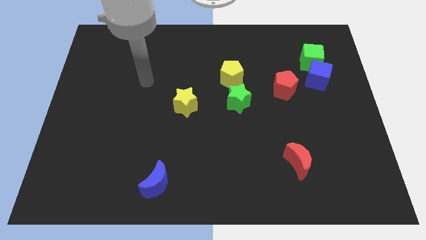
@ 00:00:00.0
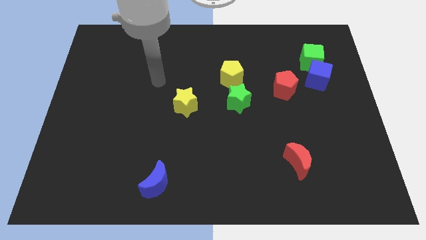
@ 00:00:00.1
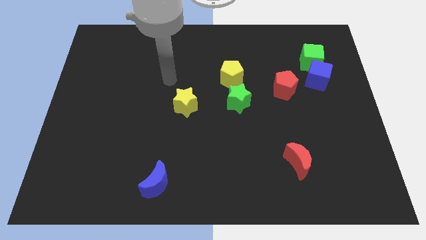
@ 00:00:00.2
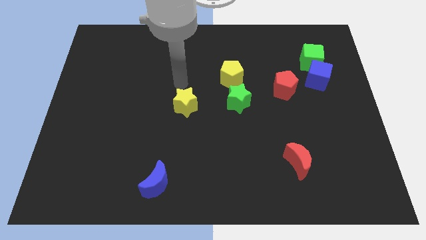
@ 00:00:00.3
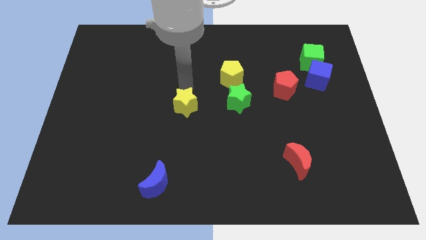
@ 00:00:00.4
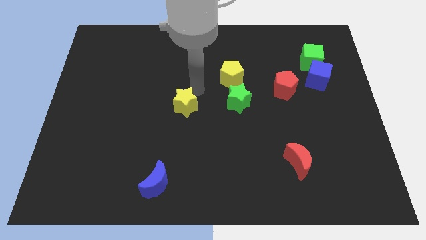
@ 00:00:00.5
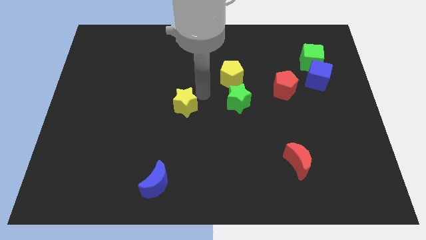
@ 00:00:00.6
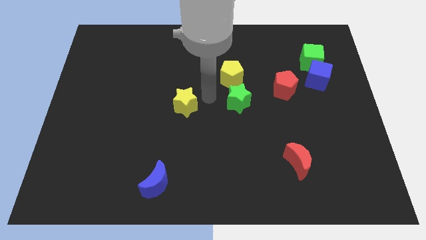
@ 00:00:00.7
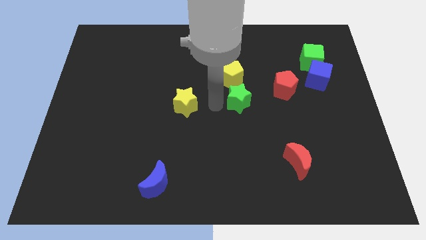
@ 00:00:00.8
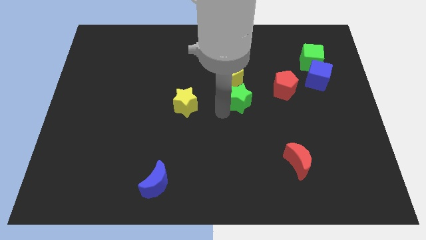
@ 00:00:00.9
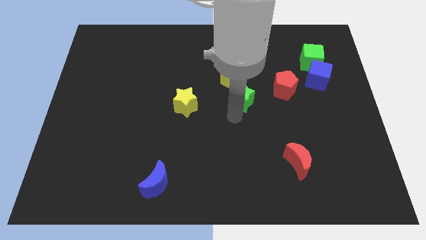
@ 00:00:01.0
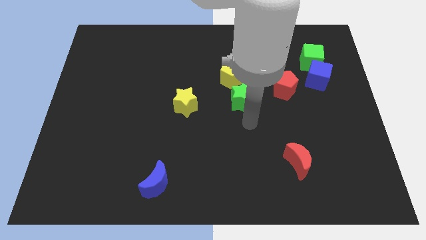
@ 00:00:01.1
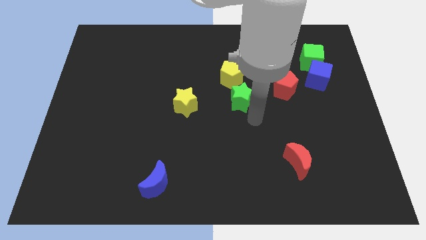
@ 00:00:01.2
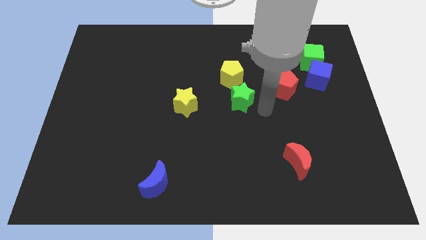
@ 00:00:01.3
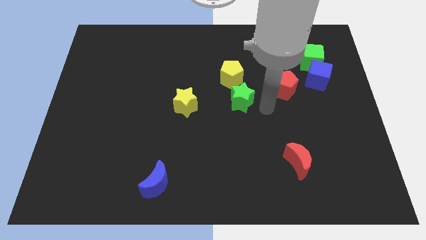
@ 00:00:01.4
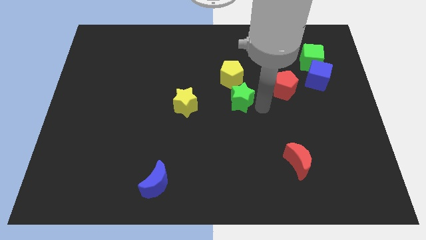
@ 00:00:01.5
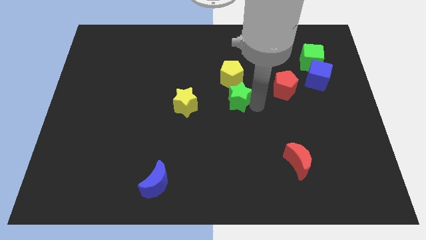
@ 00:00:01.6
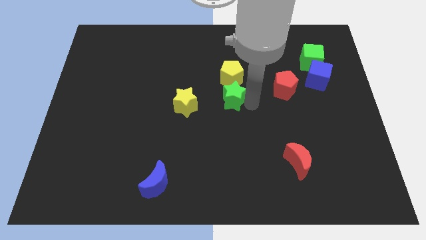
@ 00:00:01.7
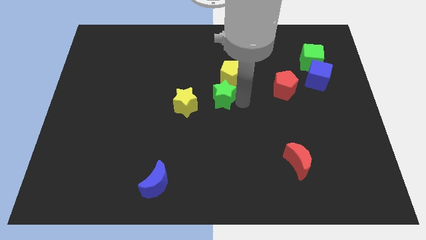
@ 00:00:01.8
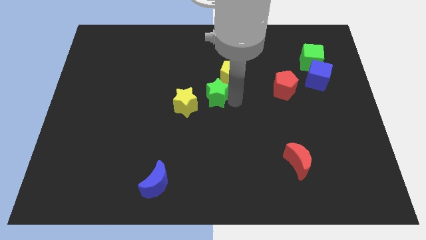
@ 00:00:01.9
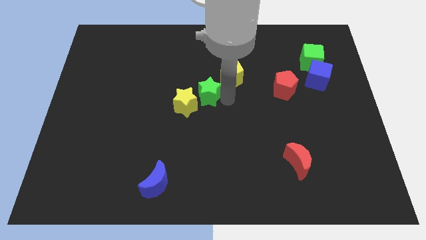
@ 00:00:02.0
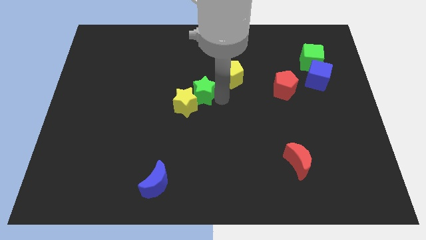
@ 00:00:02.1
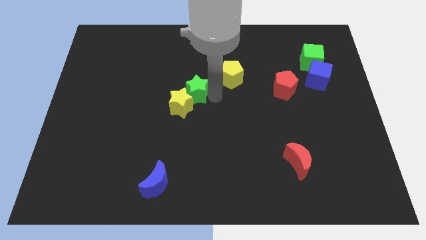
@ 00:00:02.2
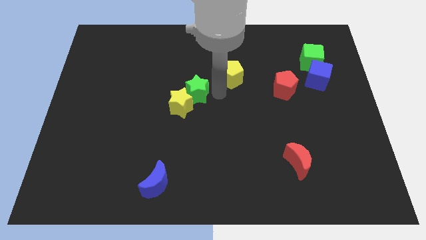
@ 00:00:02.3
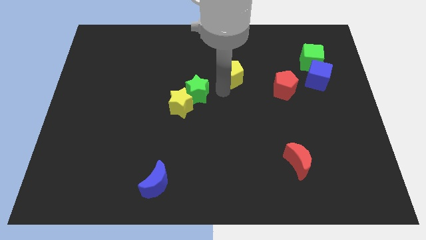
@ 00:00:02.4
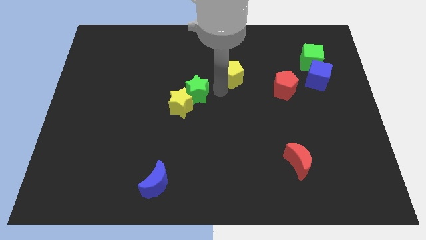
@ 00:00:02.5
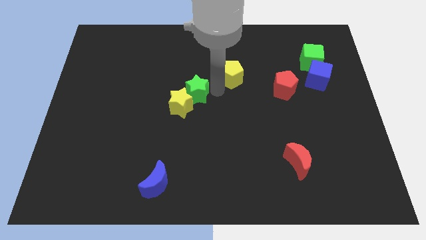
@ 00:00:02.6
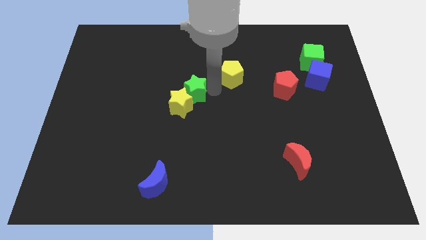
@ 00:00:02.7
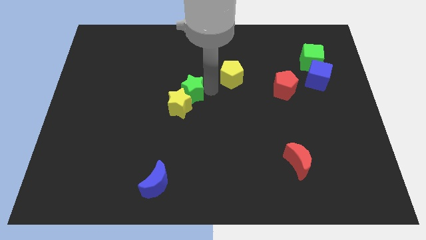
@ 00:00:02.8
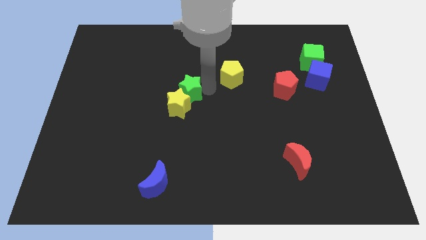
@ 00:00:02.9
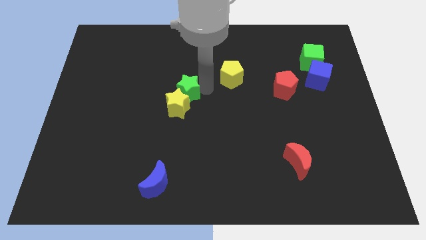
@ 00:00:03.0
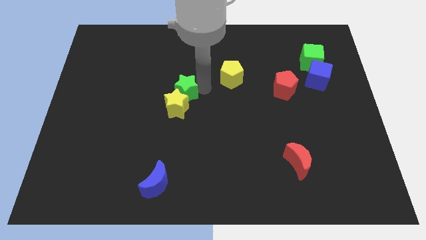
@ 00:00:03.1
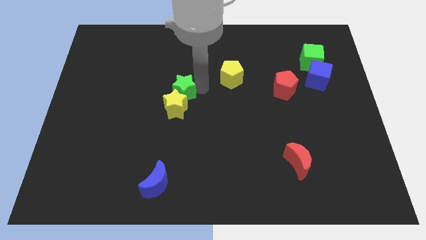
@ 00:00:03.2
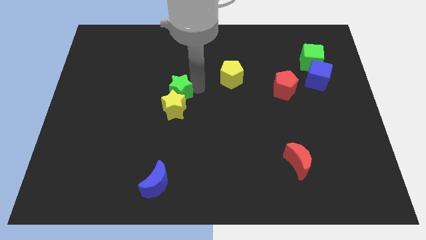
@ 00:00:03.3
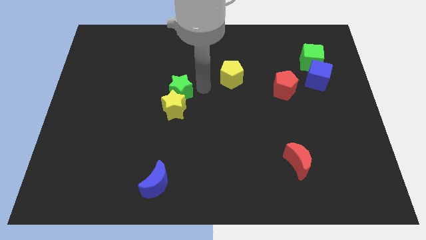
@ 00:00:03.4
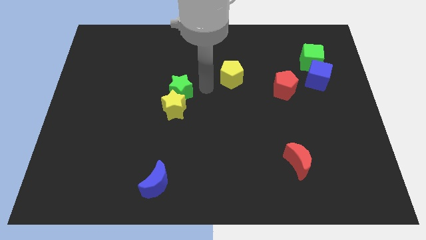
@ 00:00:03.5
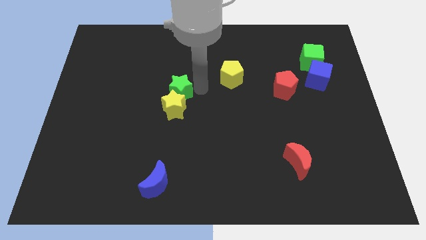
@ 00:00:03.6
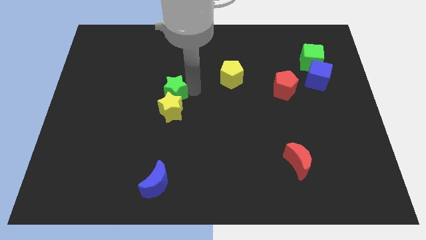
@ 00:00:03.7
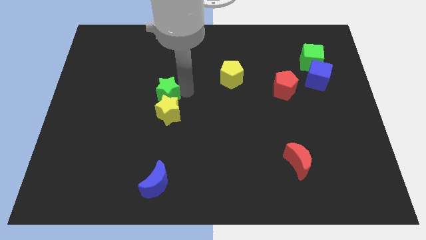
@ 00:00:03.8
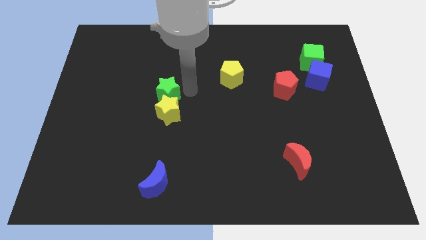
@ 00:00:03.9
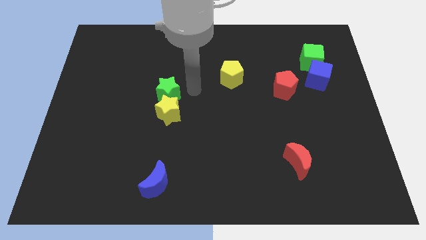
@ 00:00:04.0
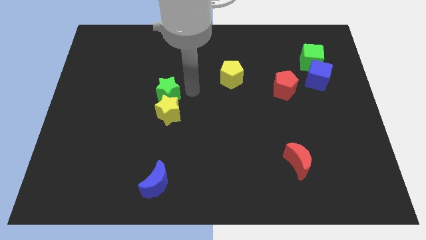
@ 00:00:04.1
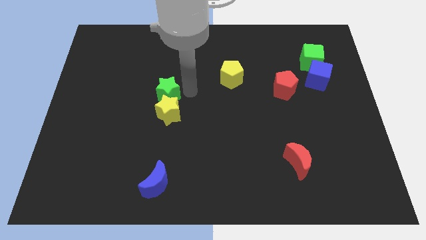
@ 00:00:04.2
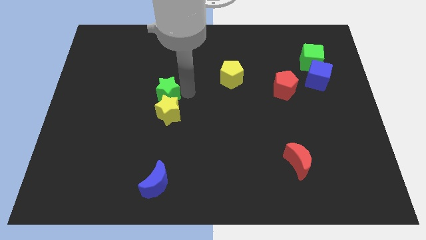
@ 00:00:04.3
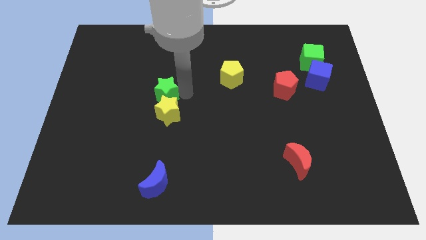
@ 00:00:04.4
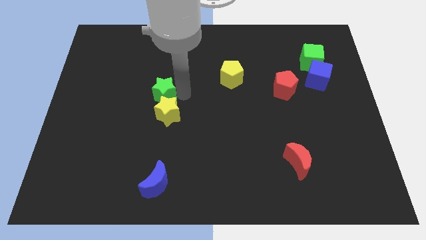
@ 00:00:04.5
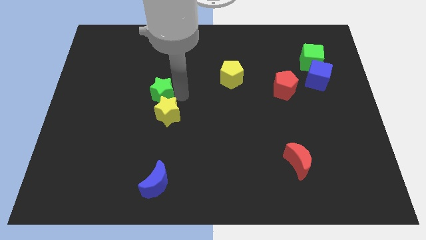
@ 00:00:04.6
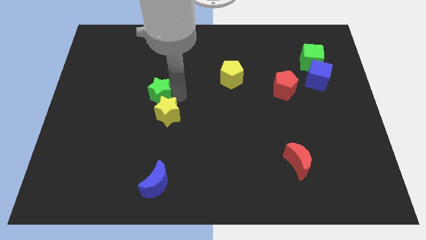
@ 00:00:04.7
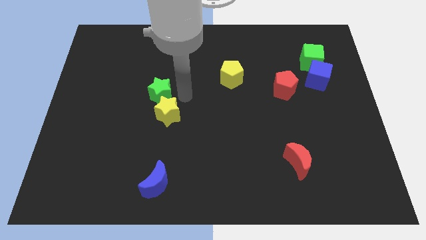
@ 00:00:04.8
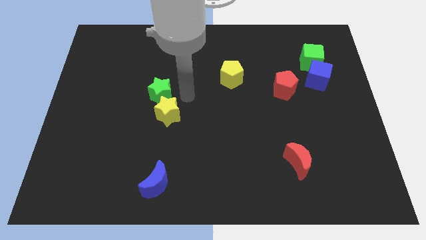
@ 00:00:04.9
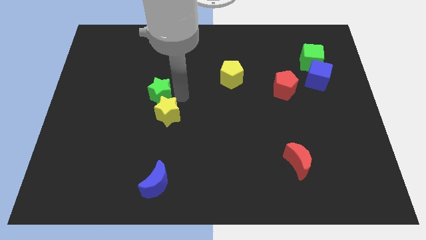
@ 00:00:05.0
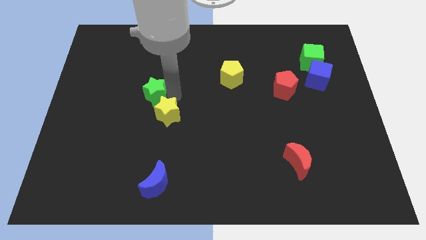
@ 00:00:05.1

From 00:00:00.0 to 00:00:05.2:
push the green star to the left

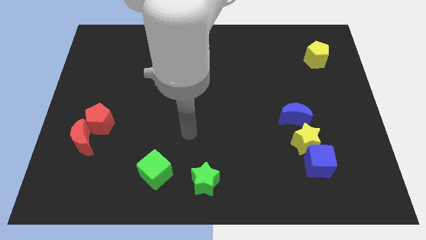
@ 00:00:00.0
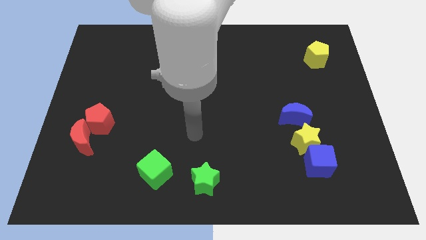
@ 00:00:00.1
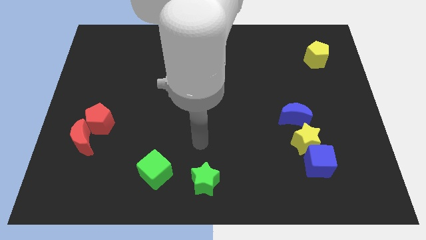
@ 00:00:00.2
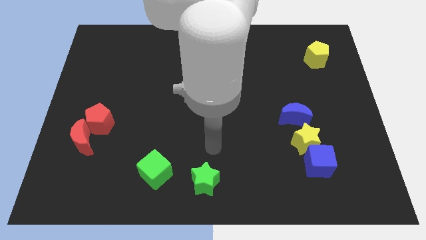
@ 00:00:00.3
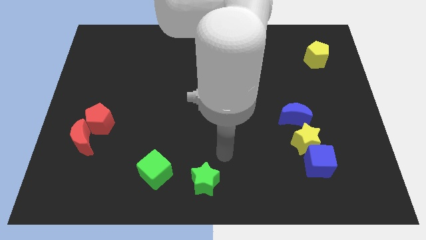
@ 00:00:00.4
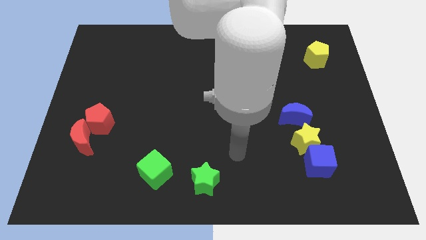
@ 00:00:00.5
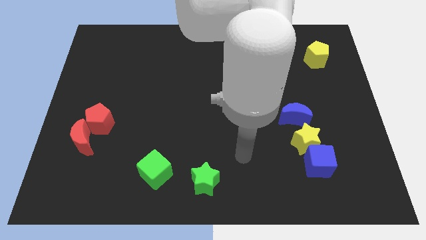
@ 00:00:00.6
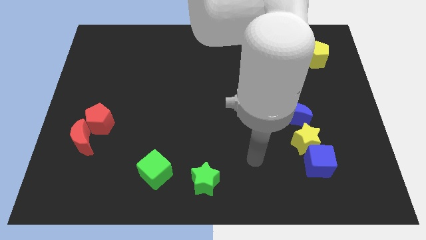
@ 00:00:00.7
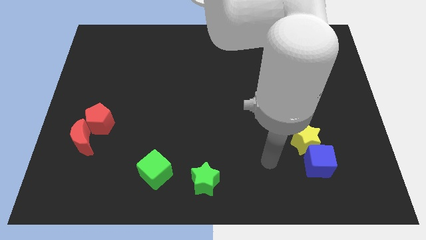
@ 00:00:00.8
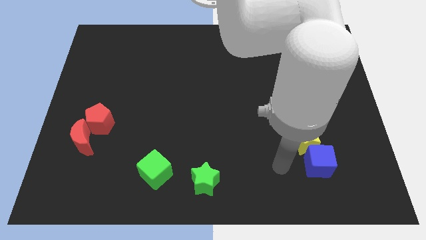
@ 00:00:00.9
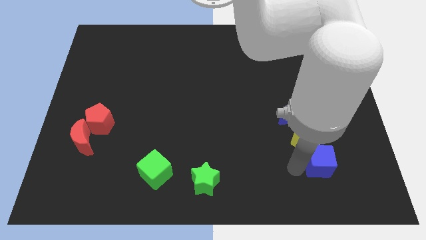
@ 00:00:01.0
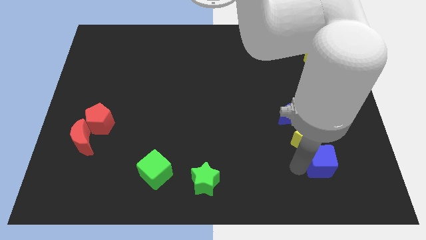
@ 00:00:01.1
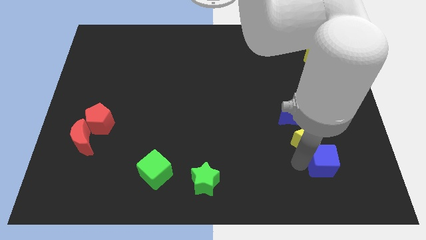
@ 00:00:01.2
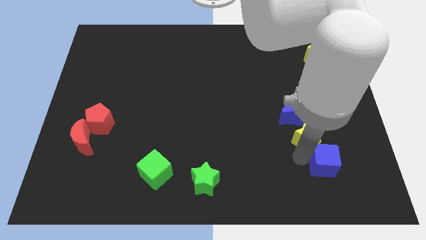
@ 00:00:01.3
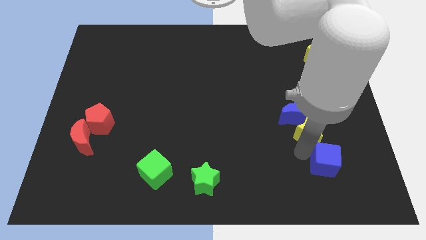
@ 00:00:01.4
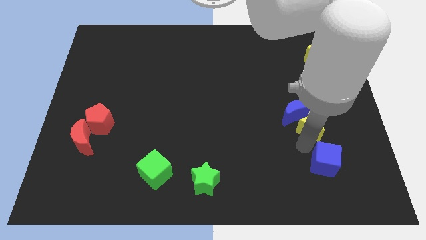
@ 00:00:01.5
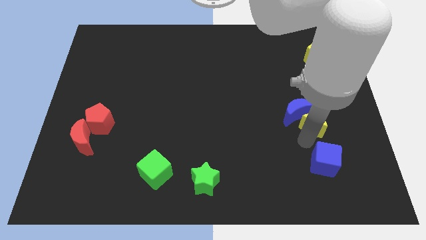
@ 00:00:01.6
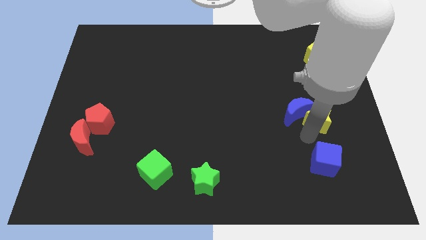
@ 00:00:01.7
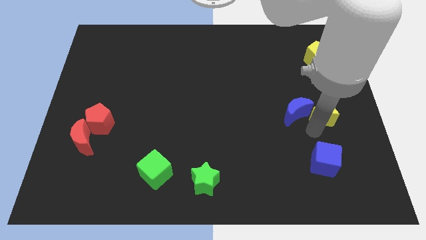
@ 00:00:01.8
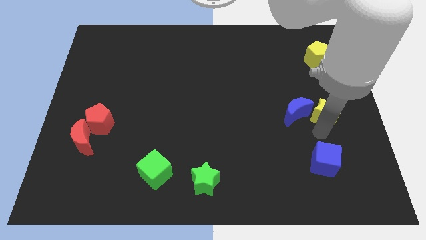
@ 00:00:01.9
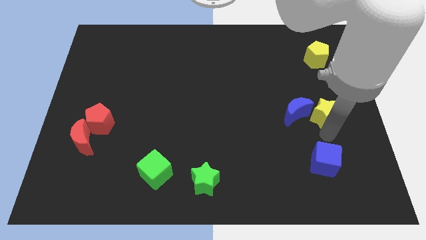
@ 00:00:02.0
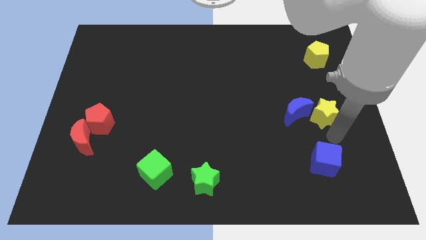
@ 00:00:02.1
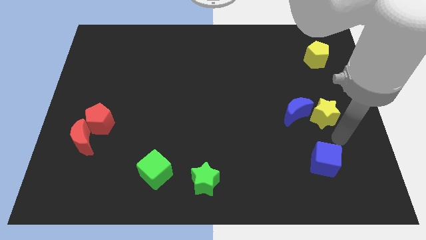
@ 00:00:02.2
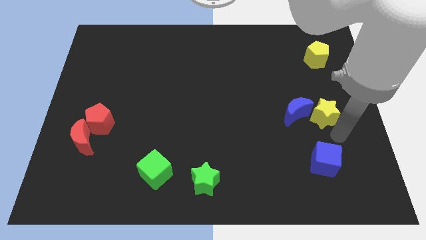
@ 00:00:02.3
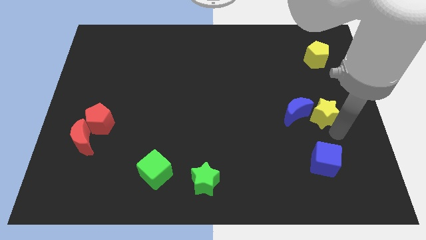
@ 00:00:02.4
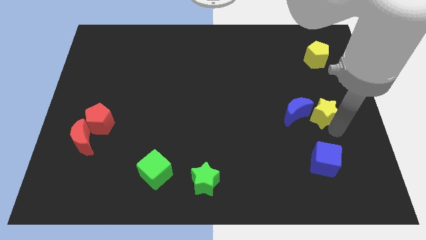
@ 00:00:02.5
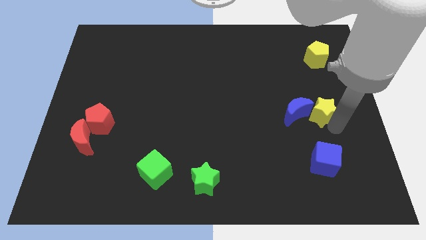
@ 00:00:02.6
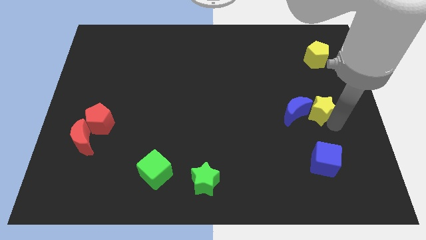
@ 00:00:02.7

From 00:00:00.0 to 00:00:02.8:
push the yellow star up somewhat
